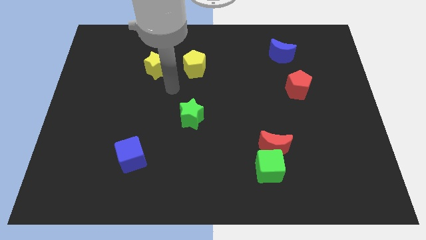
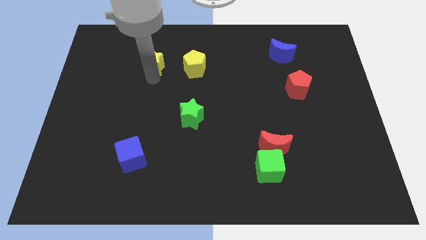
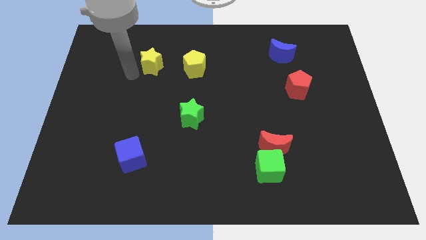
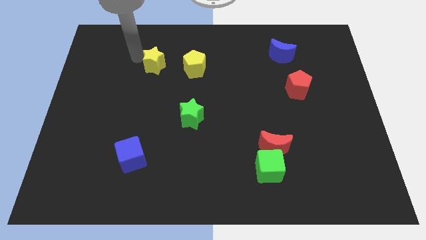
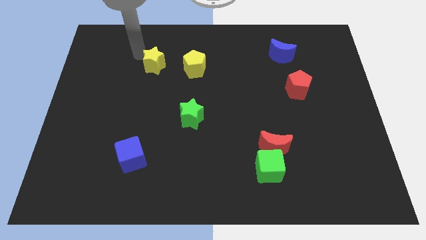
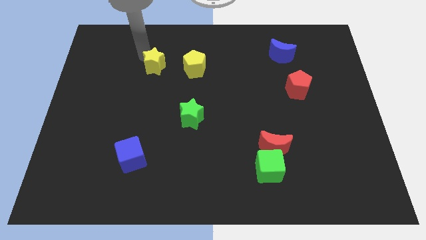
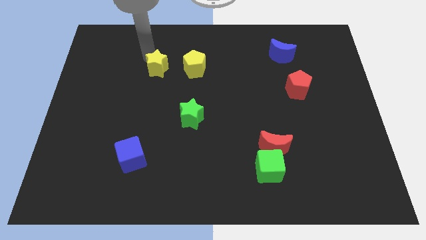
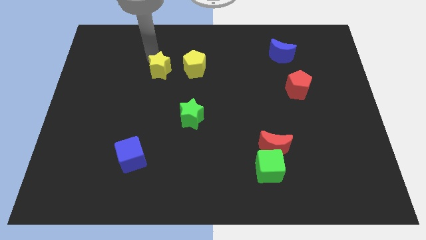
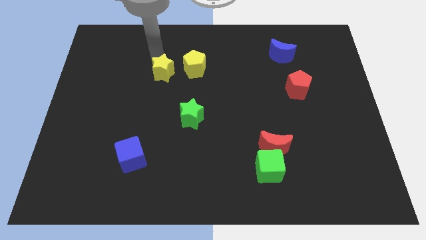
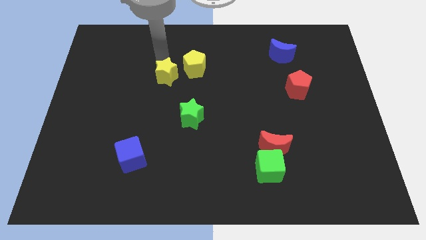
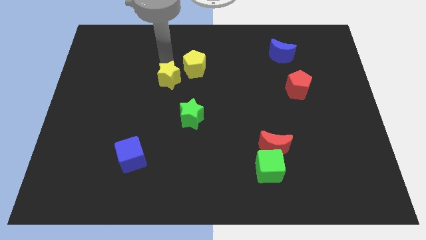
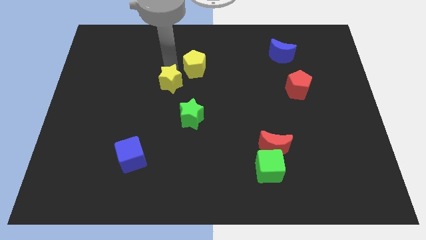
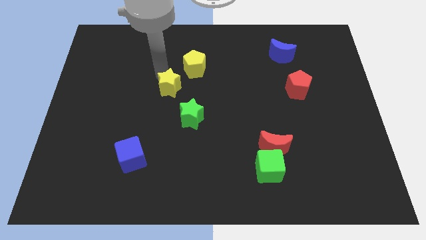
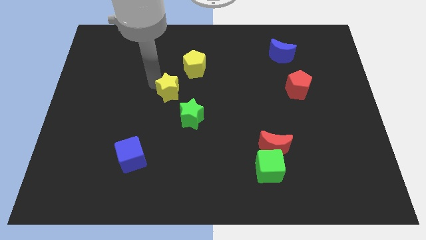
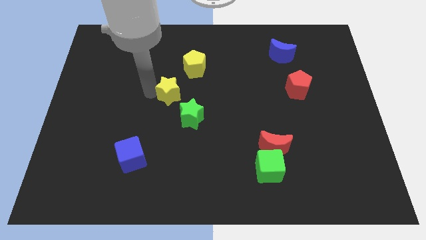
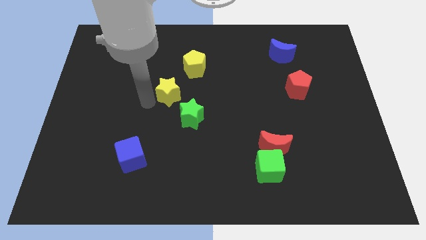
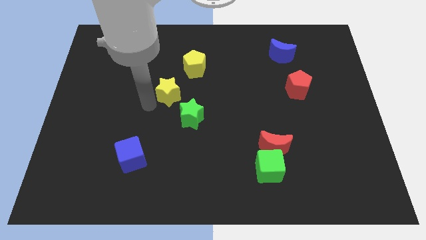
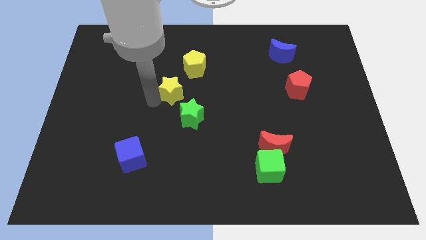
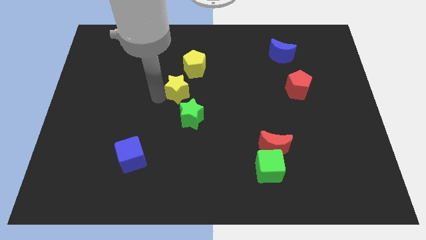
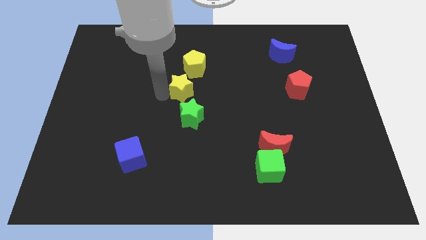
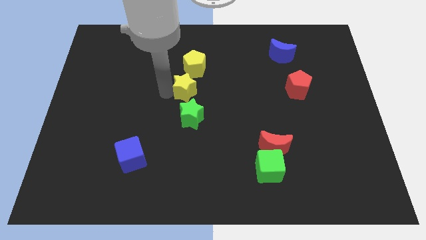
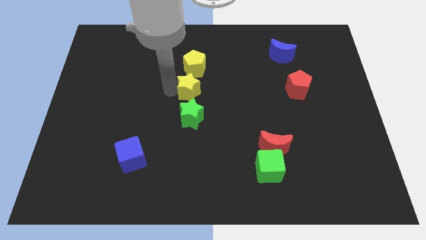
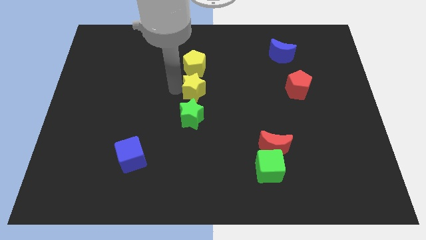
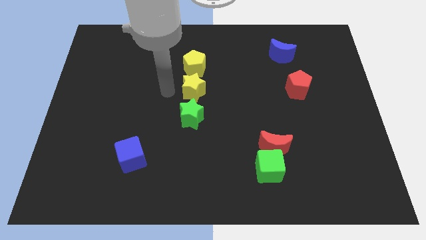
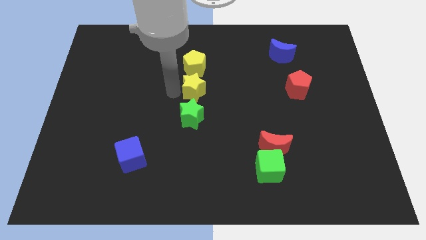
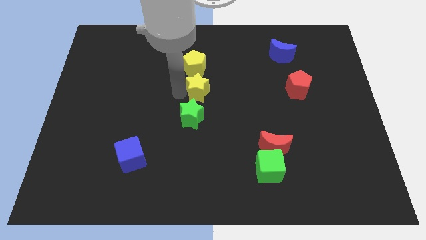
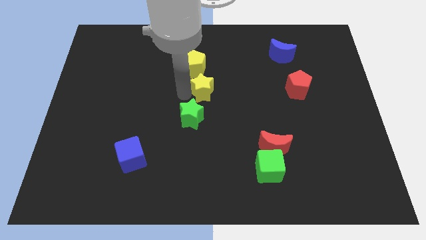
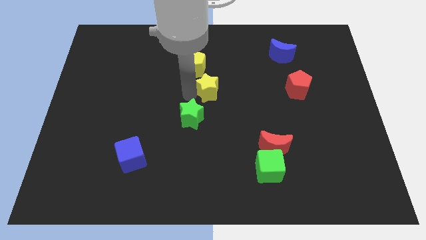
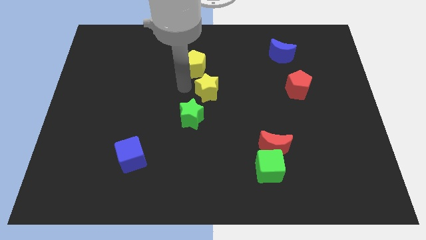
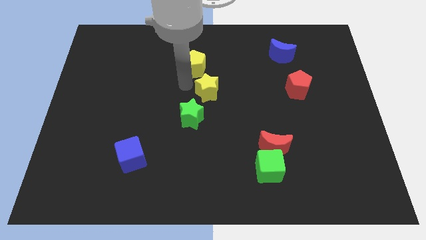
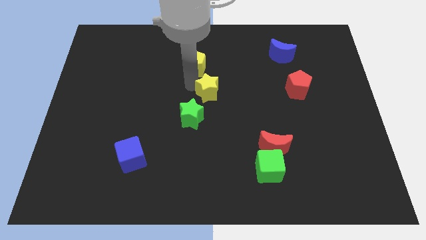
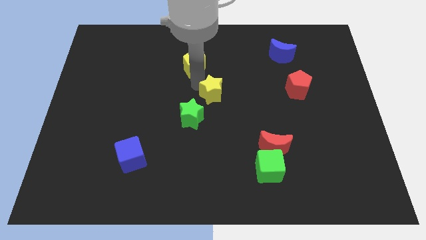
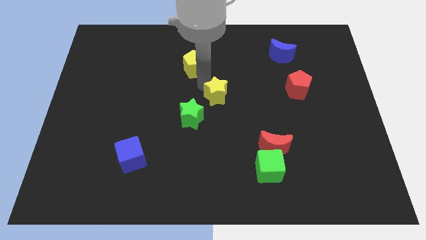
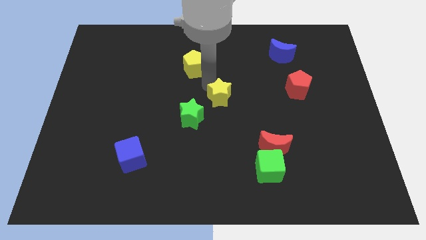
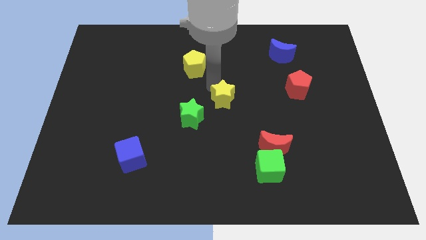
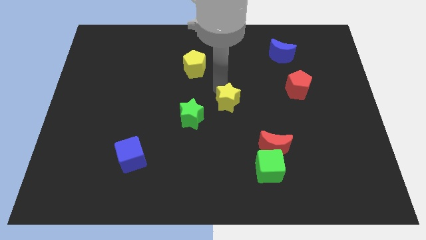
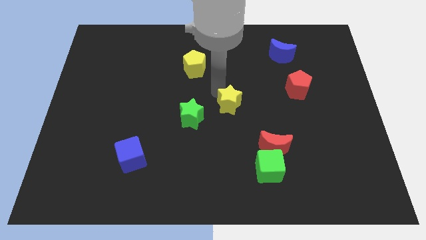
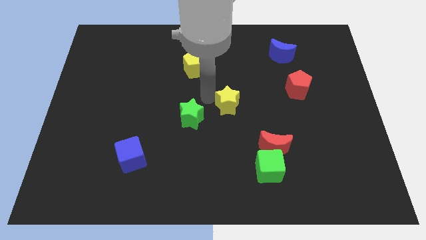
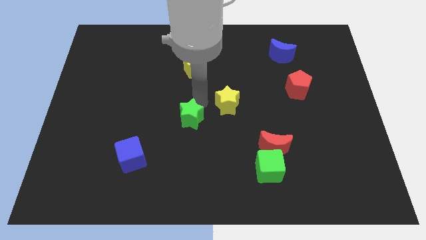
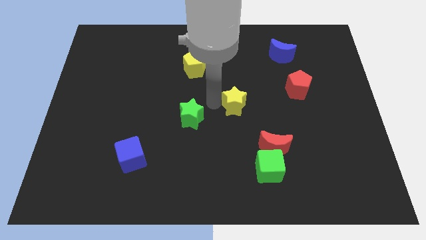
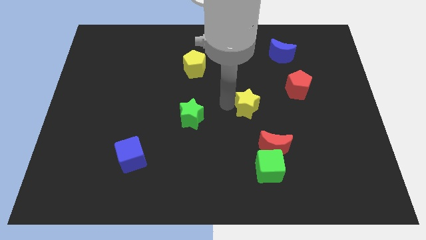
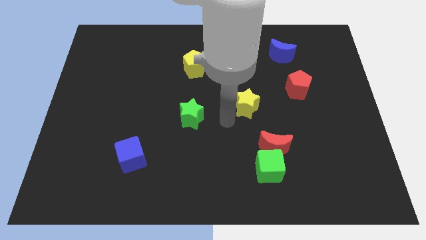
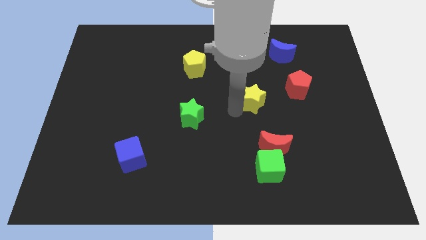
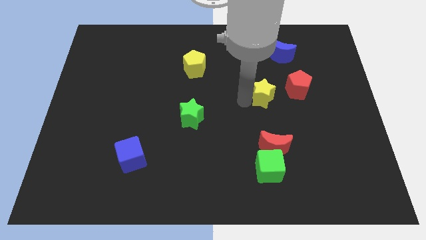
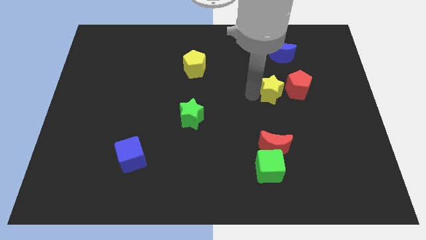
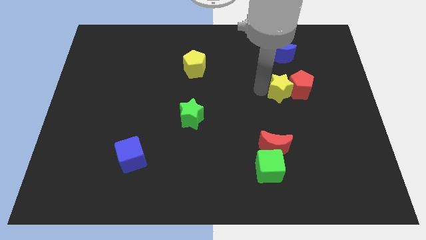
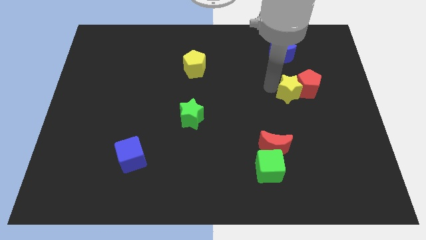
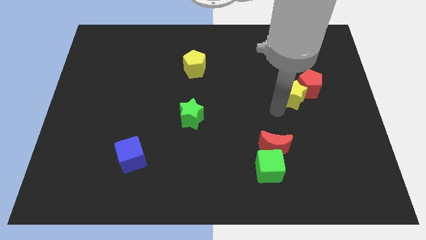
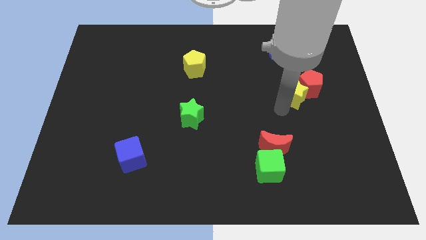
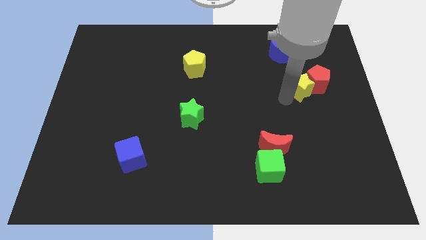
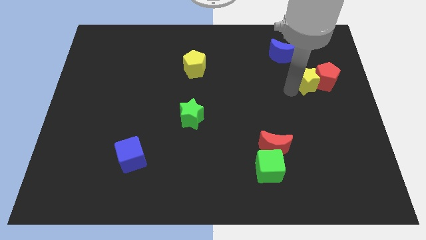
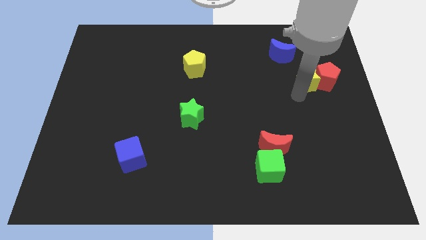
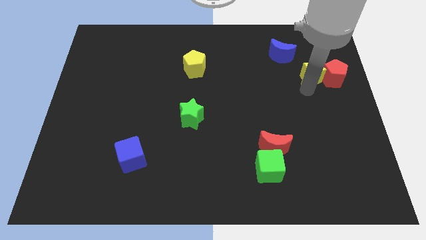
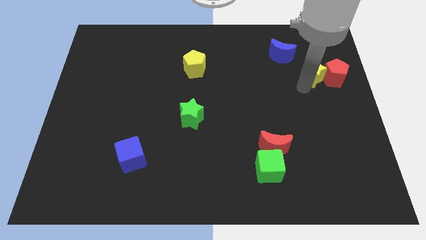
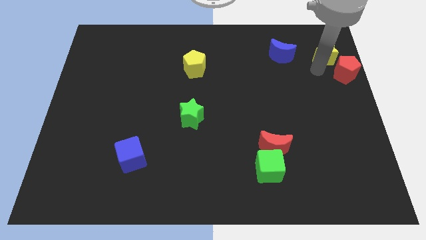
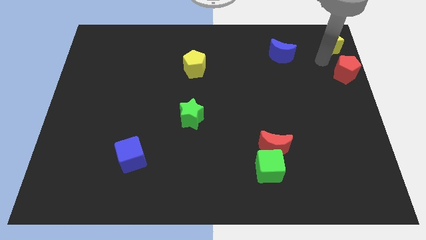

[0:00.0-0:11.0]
slide the yellow star to the upper right corner

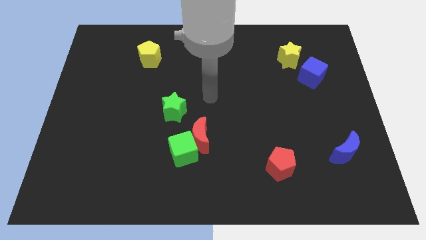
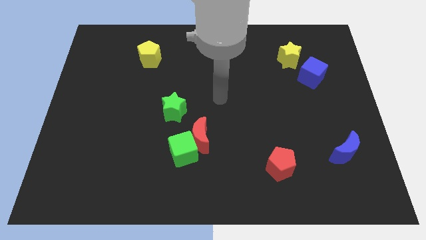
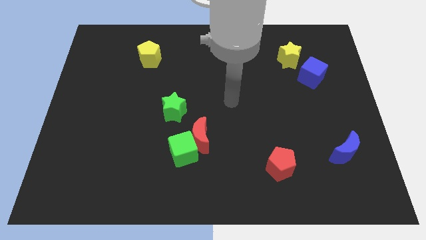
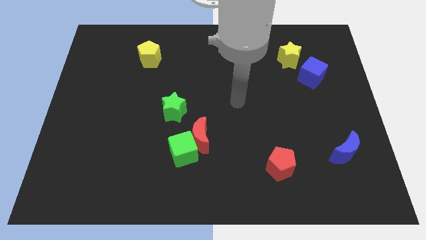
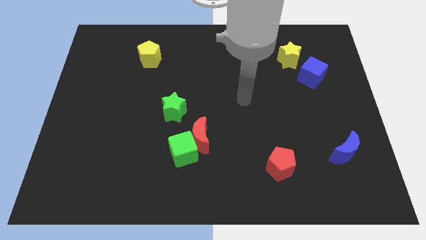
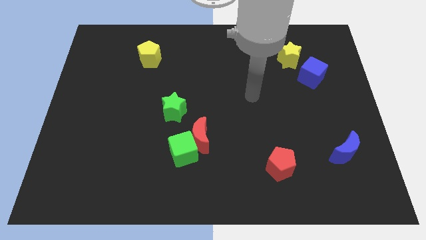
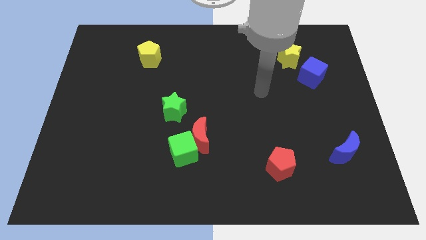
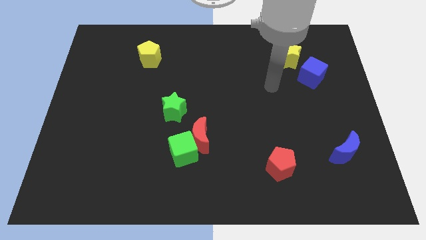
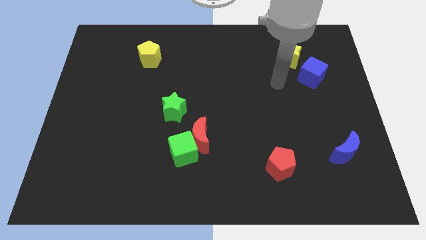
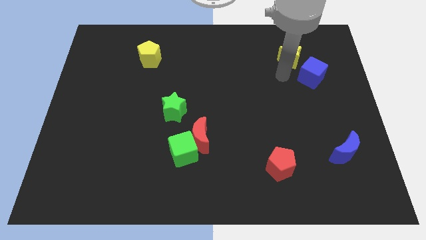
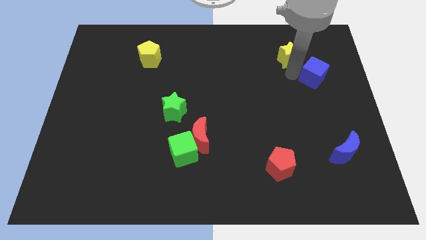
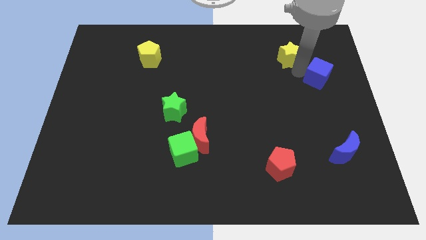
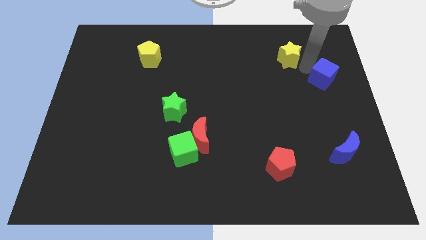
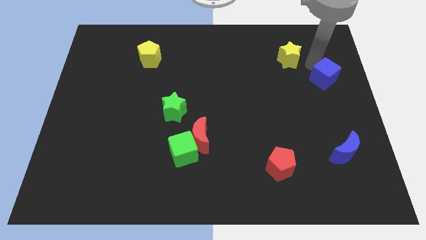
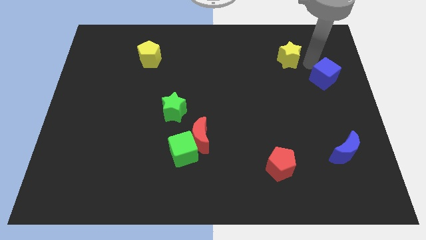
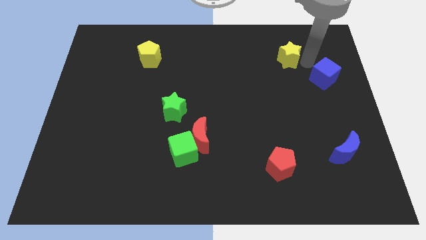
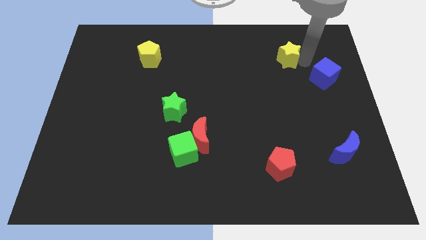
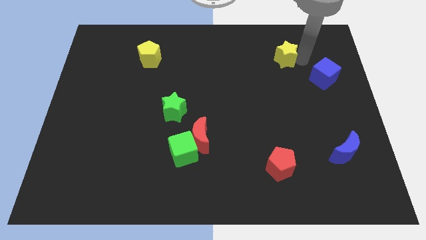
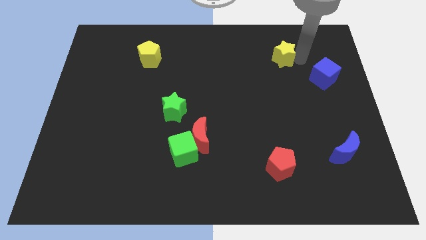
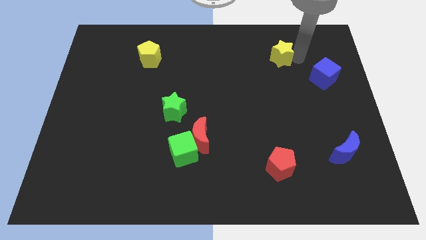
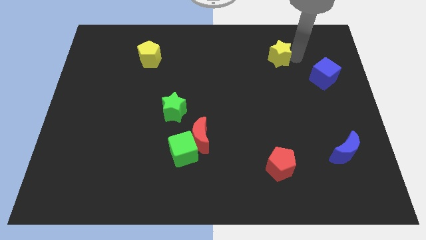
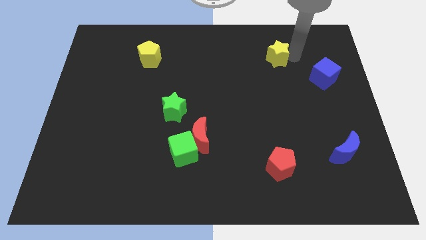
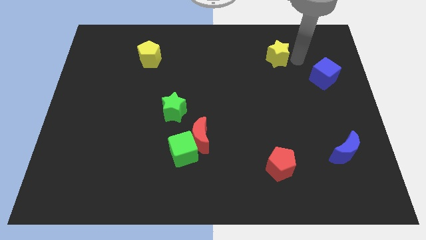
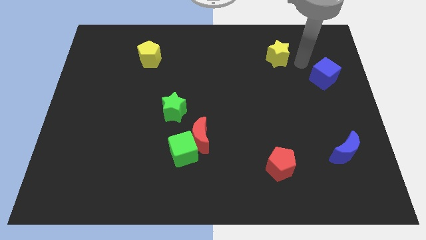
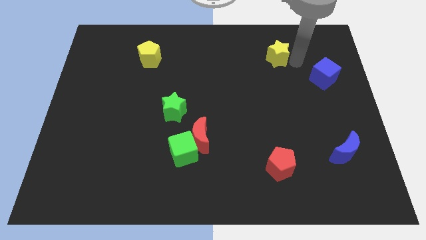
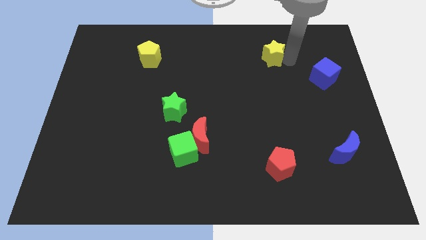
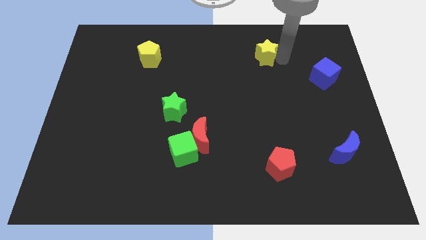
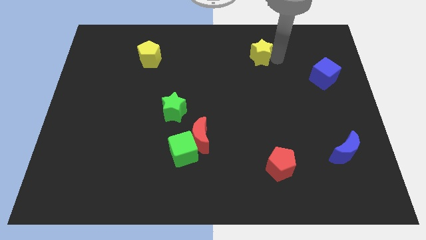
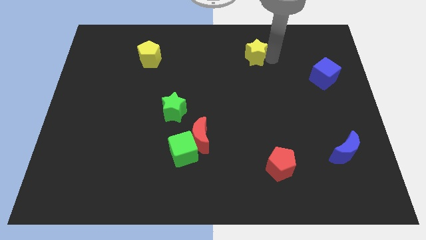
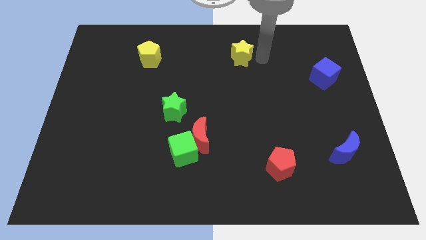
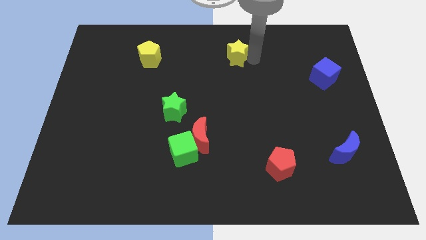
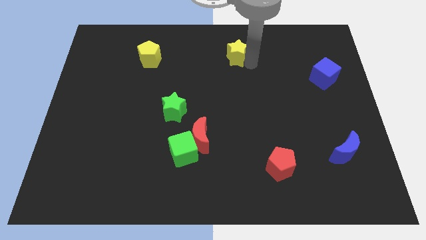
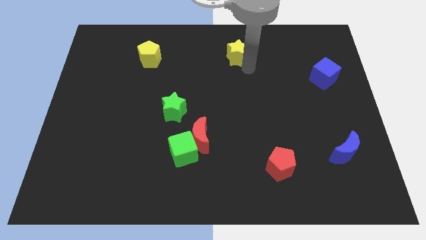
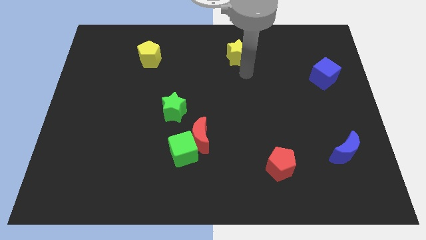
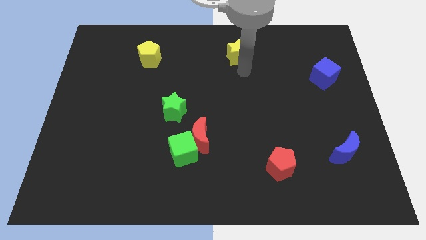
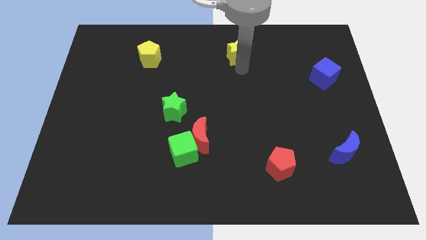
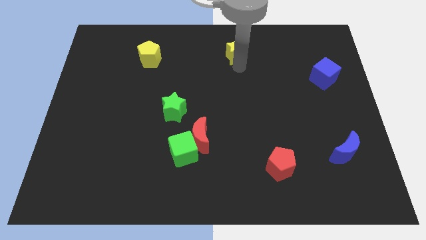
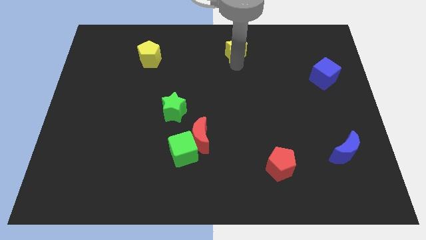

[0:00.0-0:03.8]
move the yellow star to the top side
